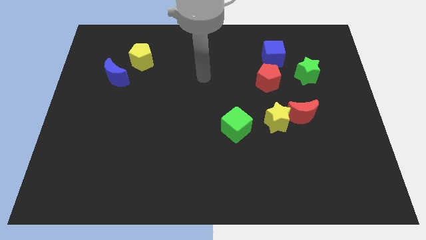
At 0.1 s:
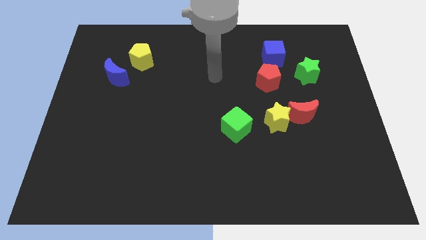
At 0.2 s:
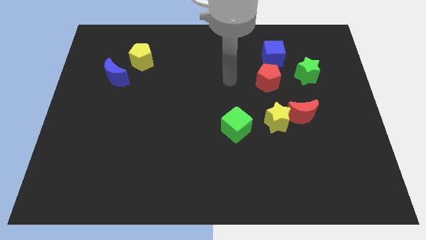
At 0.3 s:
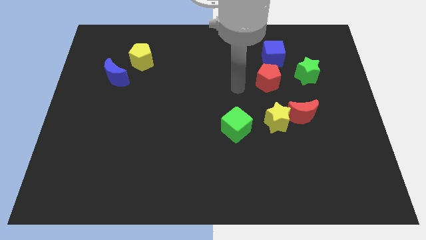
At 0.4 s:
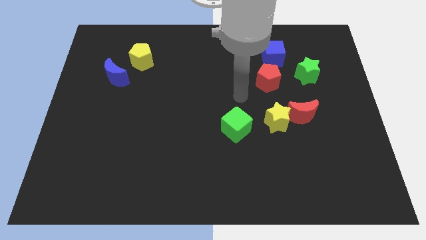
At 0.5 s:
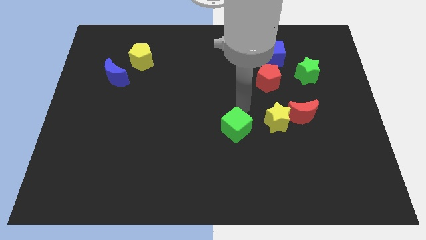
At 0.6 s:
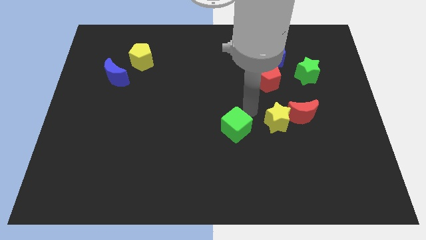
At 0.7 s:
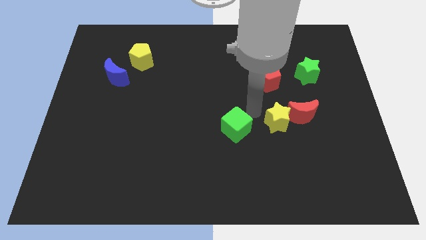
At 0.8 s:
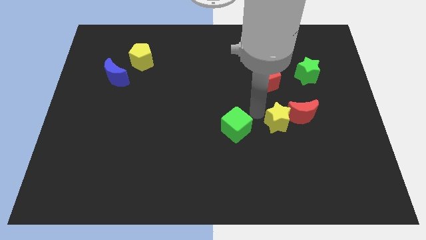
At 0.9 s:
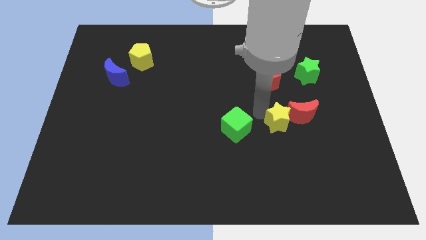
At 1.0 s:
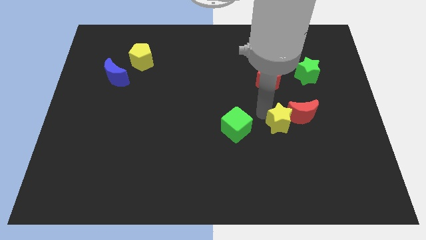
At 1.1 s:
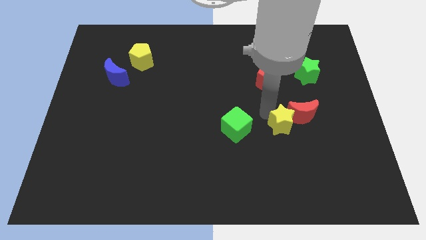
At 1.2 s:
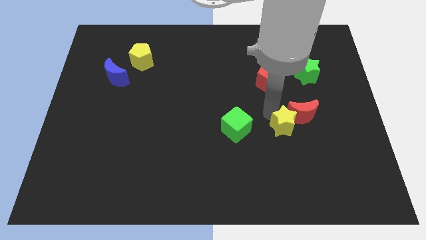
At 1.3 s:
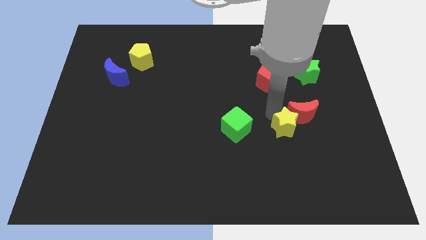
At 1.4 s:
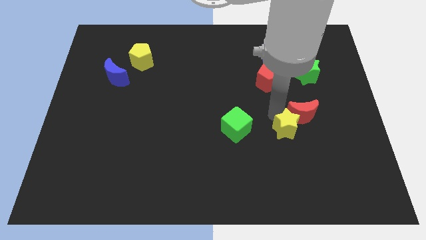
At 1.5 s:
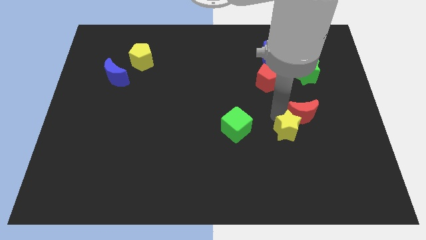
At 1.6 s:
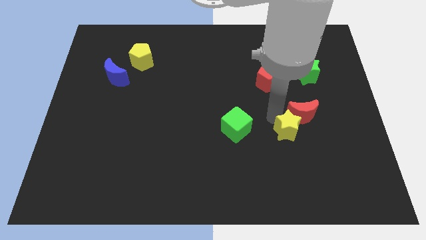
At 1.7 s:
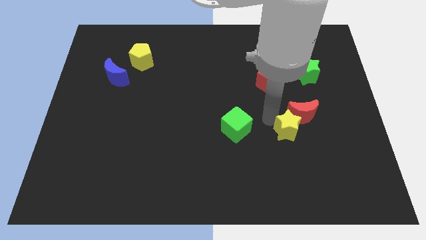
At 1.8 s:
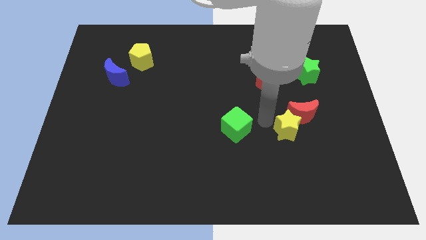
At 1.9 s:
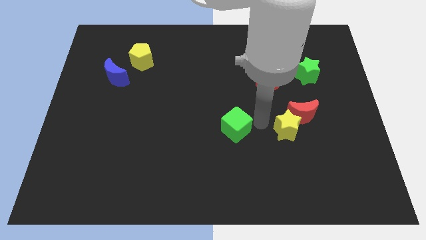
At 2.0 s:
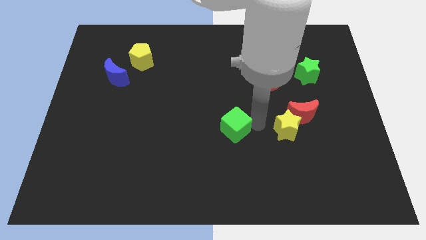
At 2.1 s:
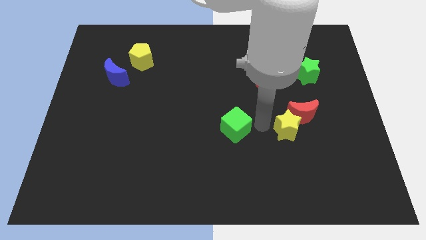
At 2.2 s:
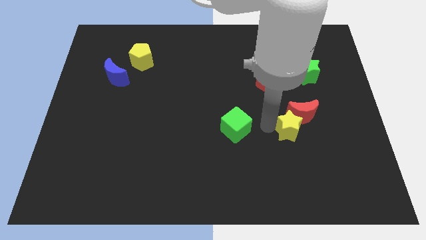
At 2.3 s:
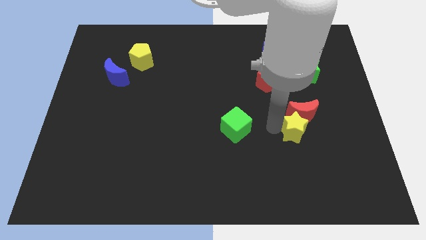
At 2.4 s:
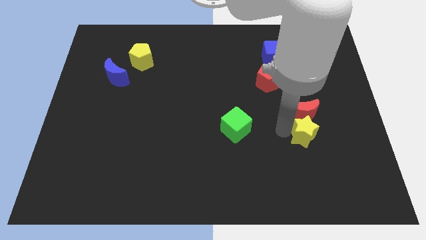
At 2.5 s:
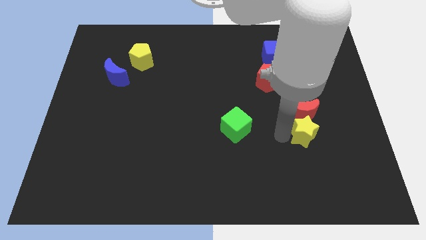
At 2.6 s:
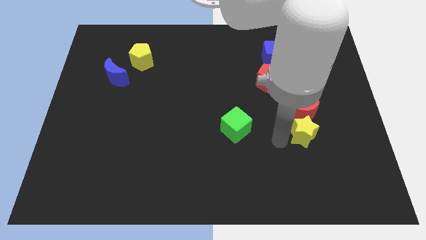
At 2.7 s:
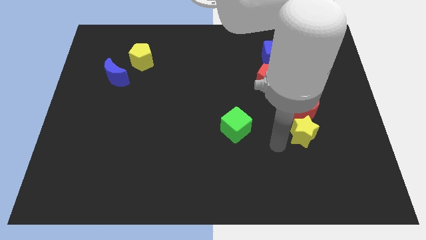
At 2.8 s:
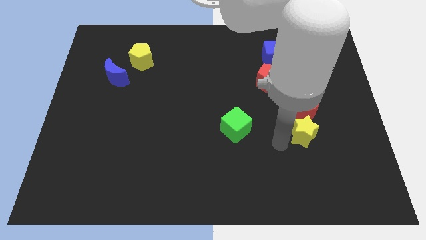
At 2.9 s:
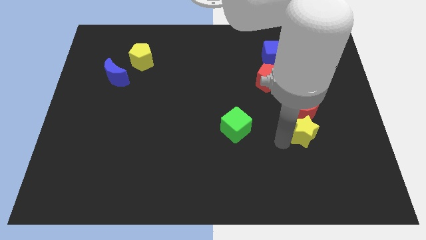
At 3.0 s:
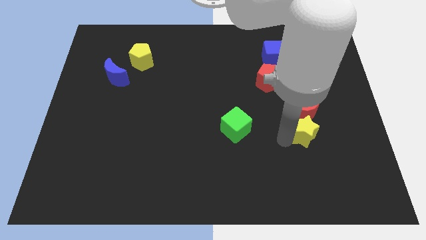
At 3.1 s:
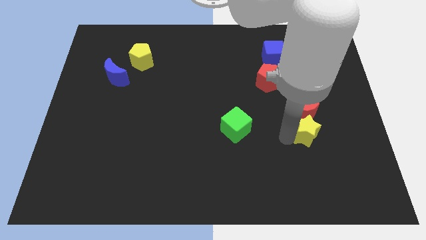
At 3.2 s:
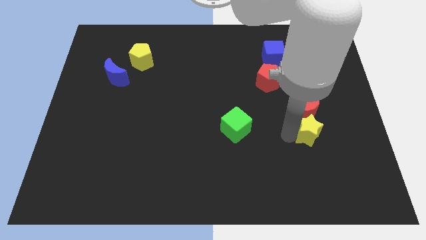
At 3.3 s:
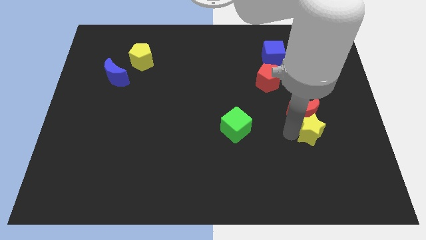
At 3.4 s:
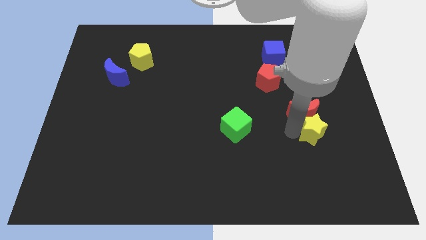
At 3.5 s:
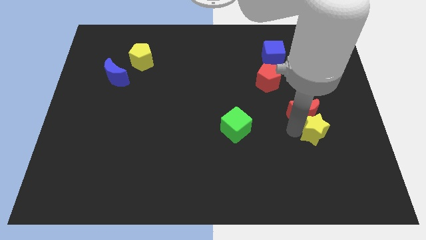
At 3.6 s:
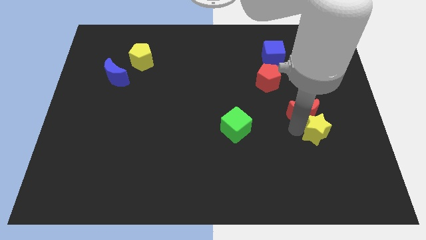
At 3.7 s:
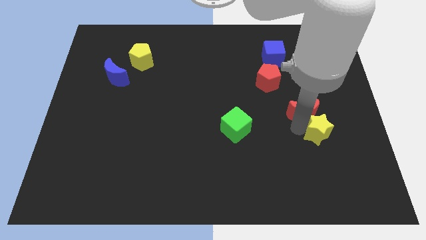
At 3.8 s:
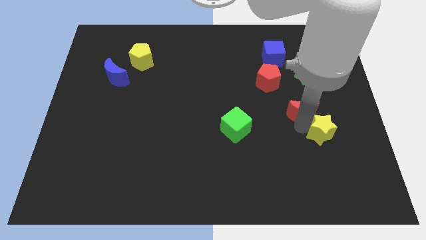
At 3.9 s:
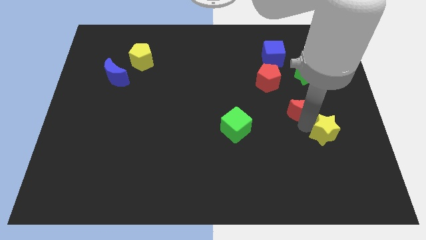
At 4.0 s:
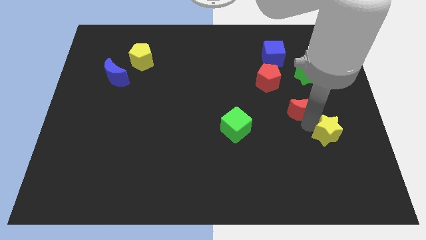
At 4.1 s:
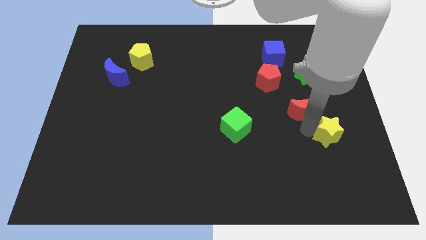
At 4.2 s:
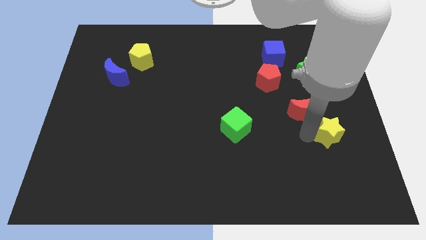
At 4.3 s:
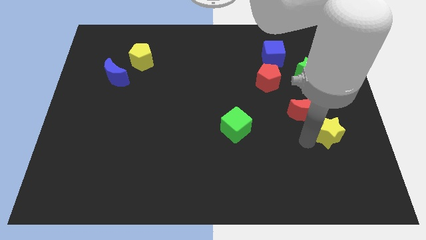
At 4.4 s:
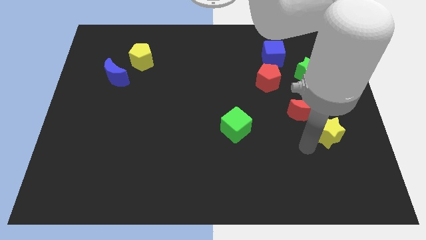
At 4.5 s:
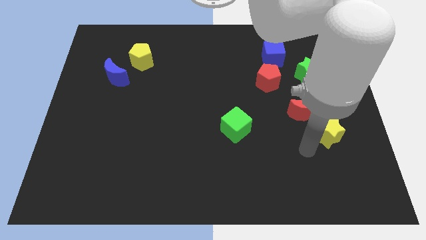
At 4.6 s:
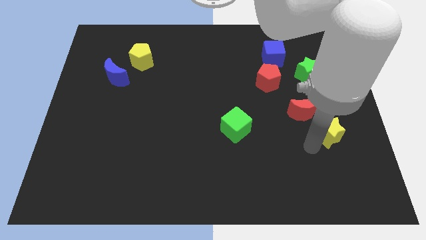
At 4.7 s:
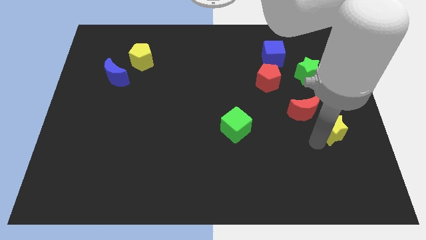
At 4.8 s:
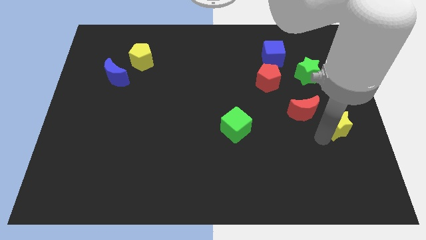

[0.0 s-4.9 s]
slide the yellow star to the center right

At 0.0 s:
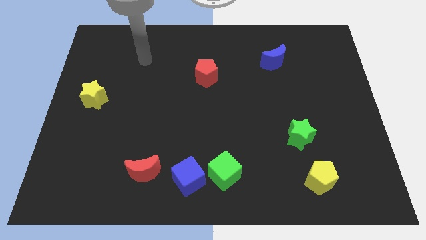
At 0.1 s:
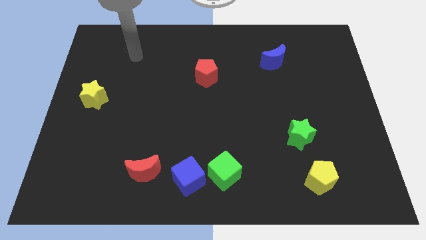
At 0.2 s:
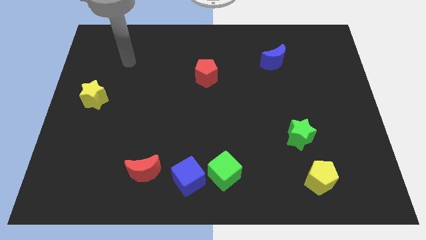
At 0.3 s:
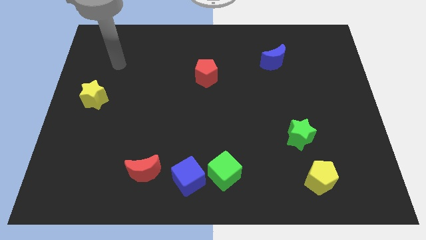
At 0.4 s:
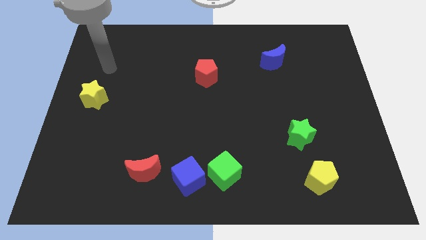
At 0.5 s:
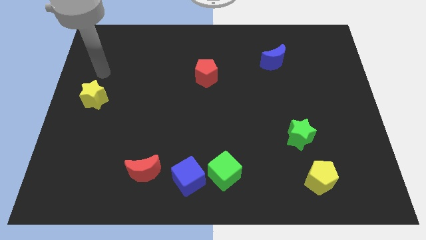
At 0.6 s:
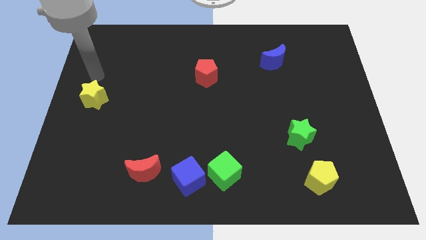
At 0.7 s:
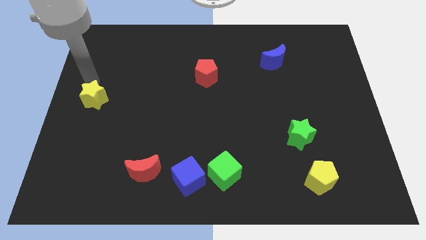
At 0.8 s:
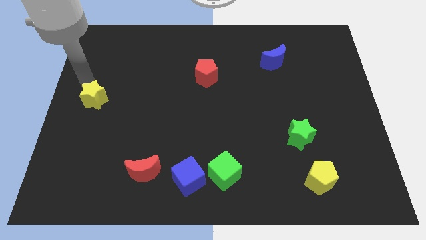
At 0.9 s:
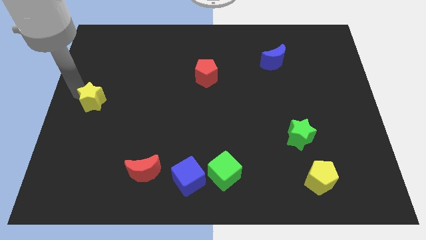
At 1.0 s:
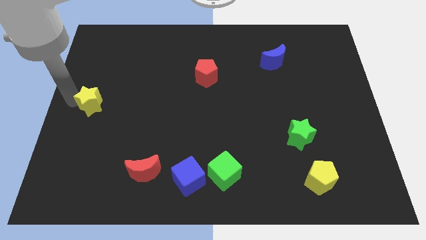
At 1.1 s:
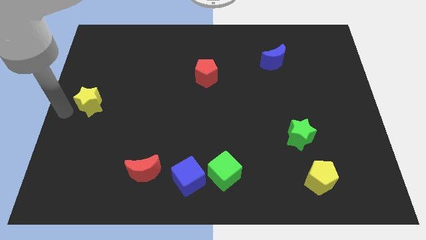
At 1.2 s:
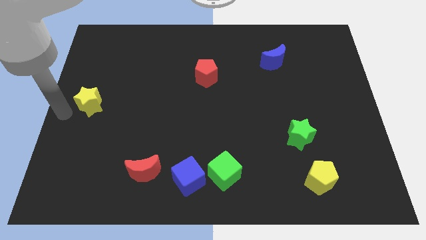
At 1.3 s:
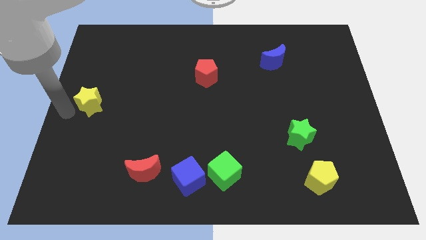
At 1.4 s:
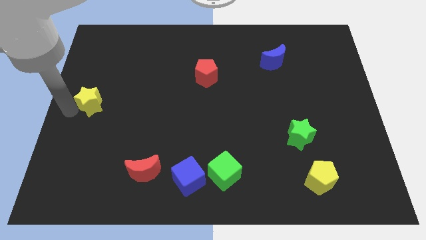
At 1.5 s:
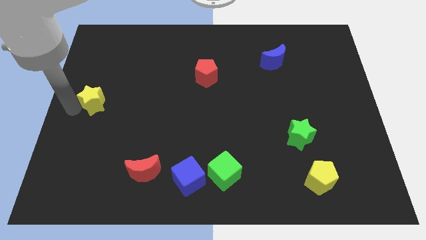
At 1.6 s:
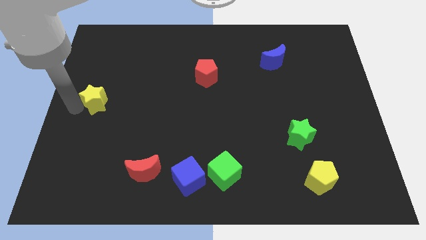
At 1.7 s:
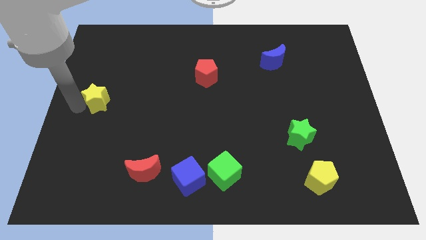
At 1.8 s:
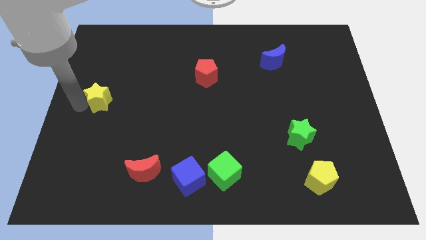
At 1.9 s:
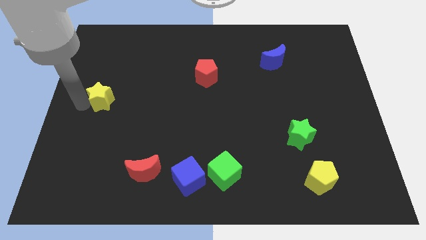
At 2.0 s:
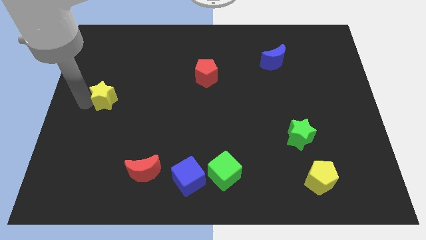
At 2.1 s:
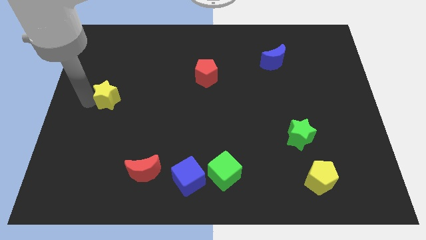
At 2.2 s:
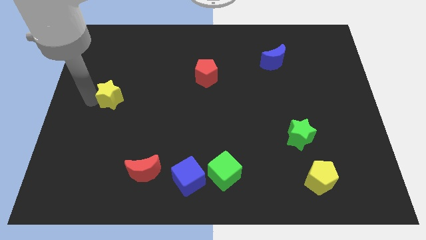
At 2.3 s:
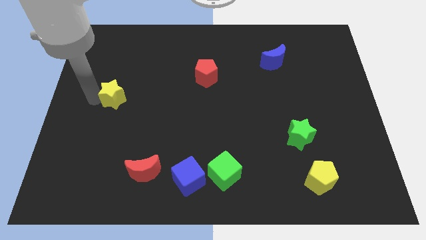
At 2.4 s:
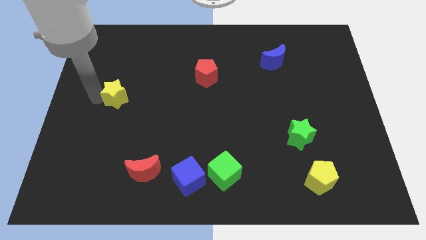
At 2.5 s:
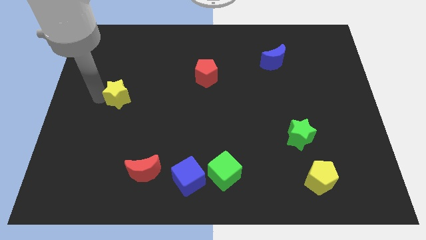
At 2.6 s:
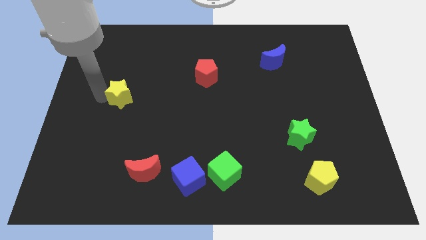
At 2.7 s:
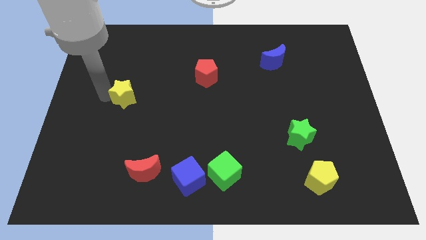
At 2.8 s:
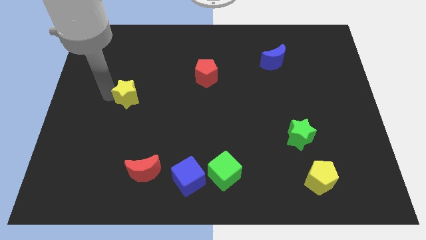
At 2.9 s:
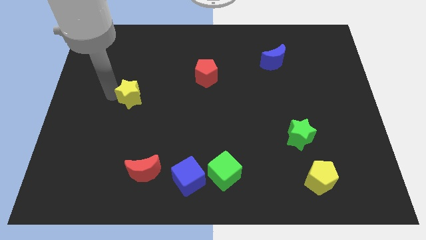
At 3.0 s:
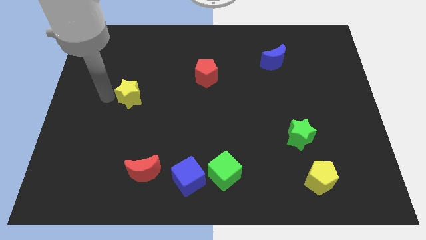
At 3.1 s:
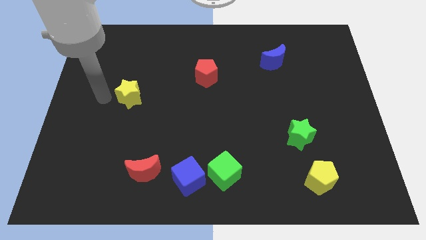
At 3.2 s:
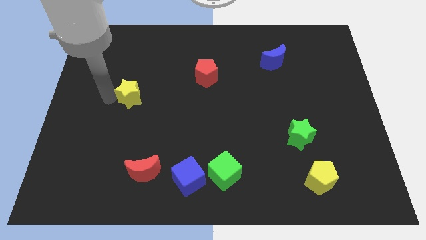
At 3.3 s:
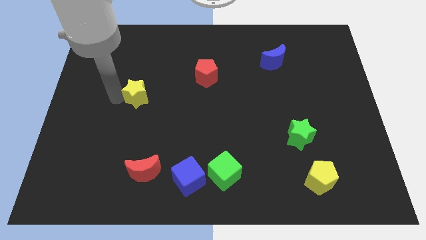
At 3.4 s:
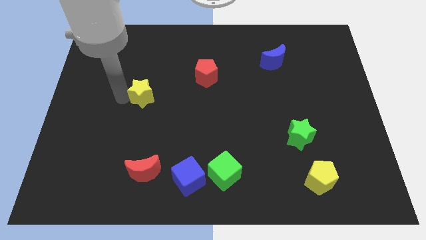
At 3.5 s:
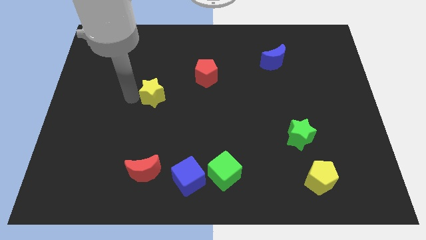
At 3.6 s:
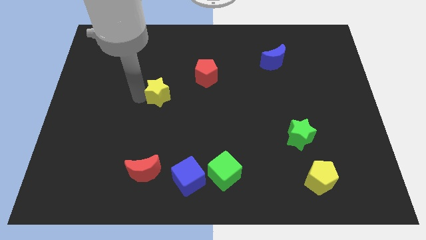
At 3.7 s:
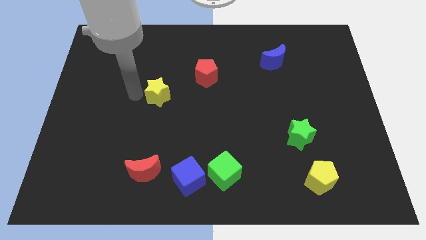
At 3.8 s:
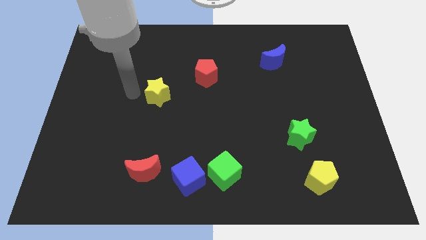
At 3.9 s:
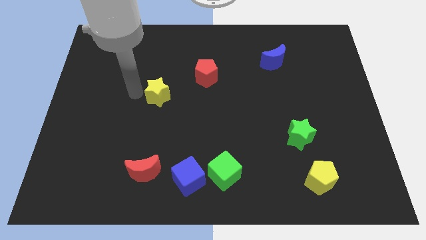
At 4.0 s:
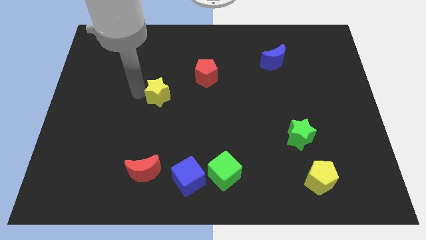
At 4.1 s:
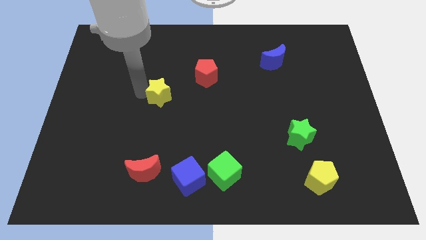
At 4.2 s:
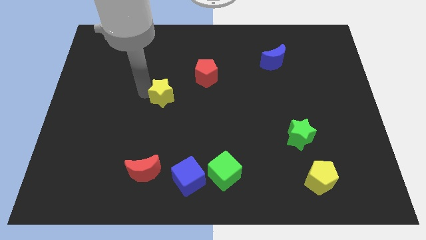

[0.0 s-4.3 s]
put the yellow star to the middle
